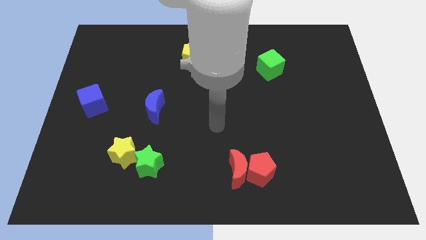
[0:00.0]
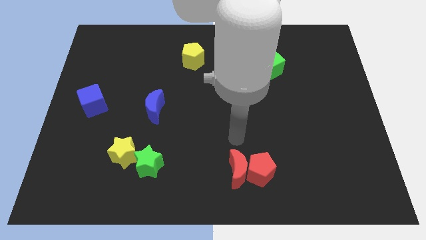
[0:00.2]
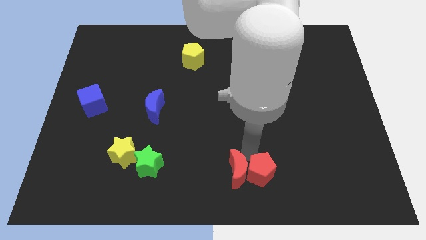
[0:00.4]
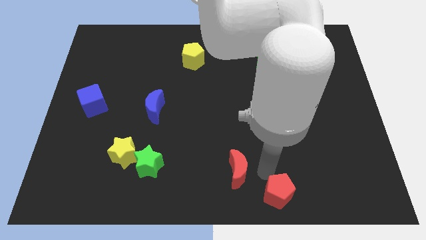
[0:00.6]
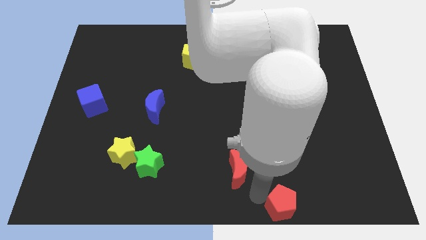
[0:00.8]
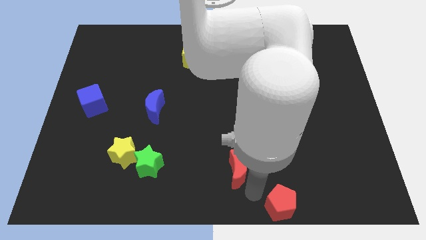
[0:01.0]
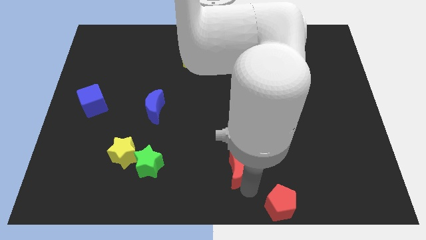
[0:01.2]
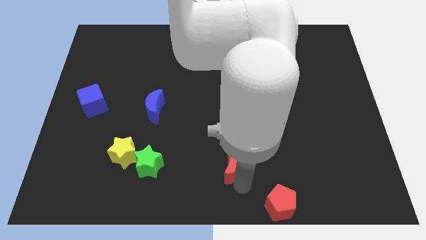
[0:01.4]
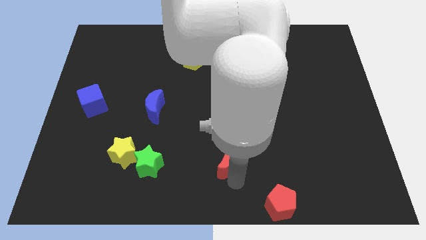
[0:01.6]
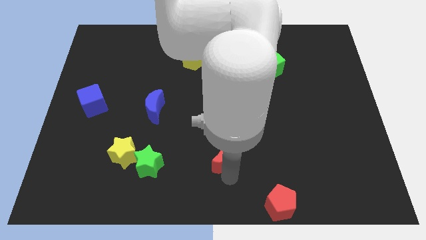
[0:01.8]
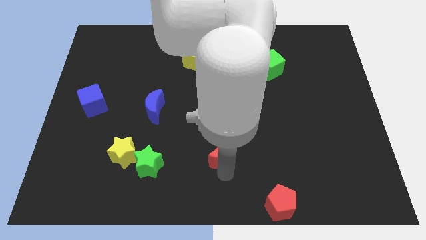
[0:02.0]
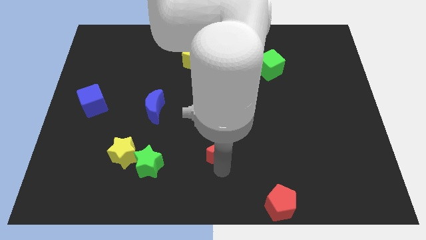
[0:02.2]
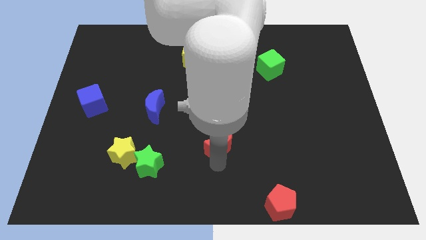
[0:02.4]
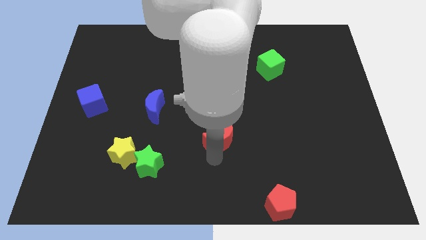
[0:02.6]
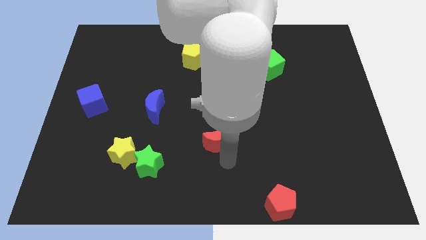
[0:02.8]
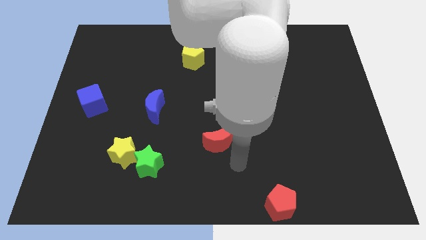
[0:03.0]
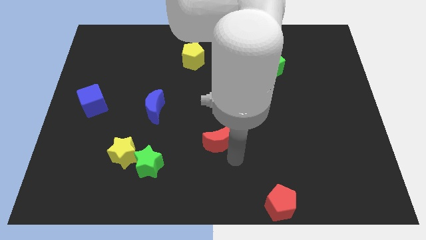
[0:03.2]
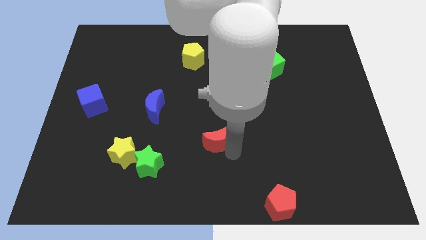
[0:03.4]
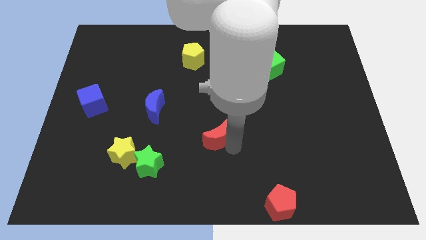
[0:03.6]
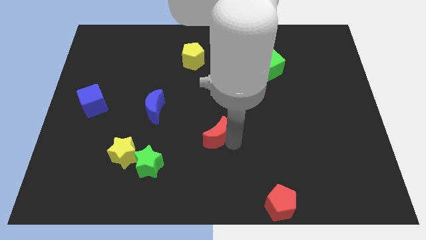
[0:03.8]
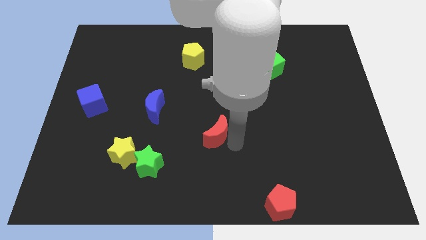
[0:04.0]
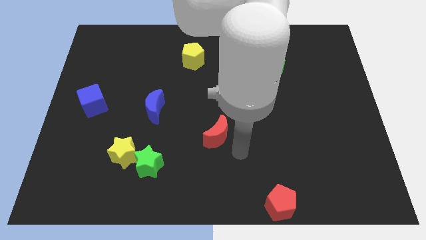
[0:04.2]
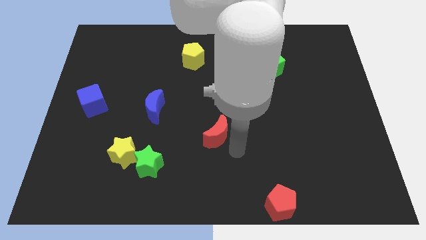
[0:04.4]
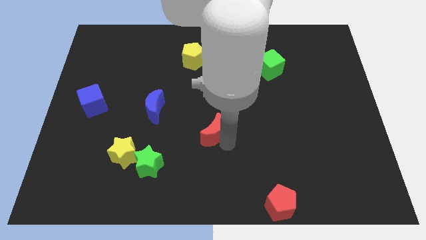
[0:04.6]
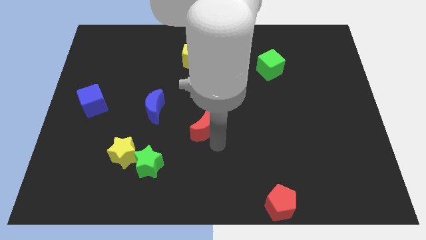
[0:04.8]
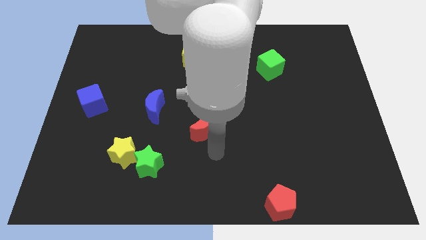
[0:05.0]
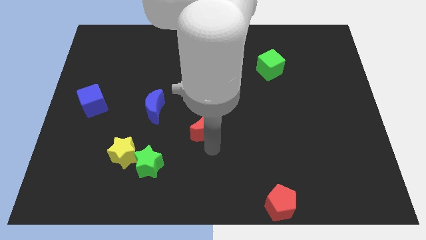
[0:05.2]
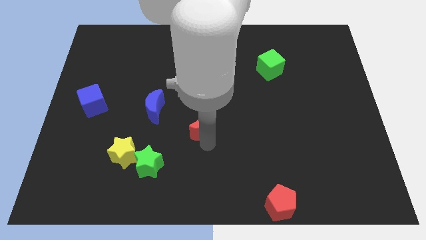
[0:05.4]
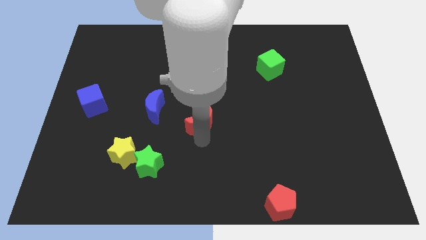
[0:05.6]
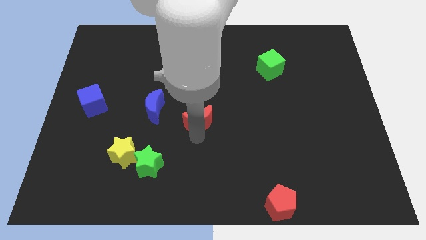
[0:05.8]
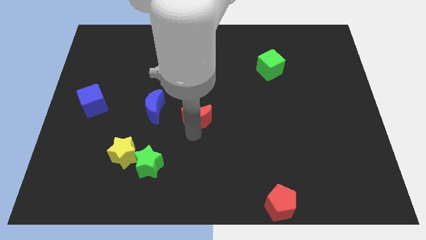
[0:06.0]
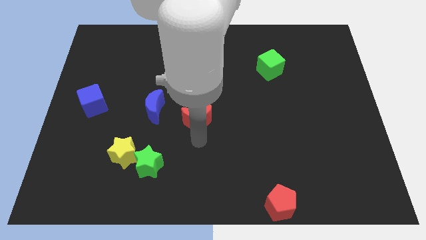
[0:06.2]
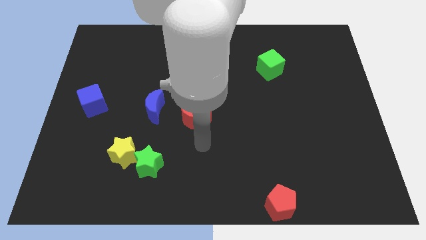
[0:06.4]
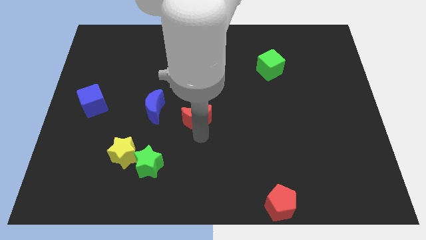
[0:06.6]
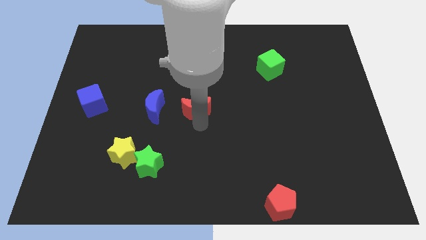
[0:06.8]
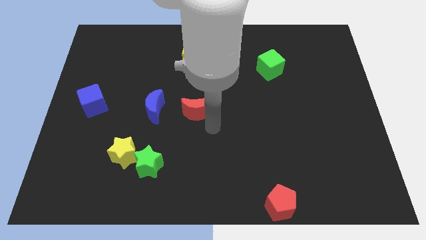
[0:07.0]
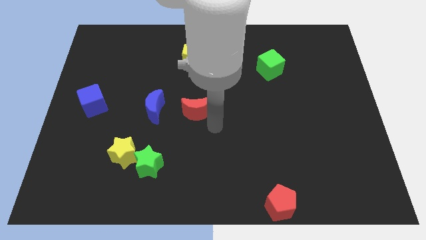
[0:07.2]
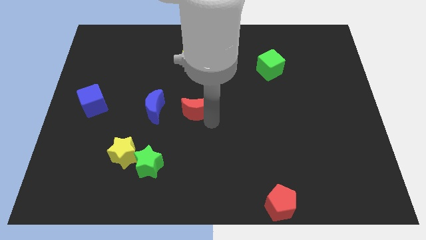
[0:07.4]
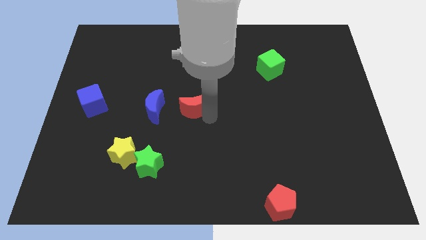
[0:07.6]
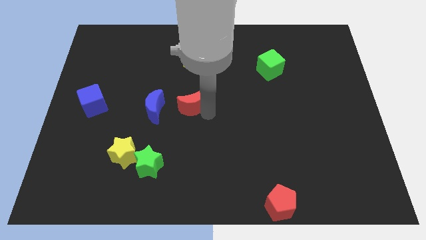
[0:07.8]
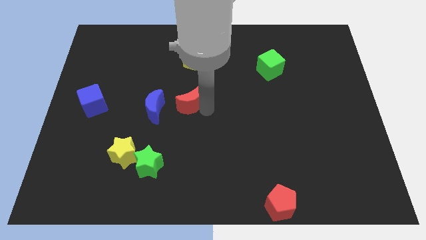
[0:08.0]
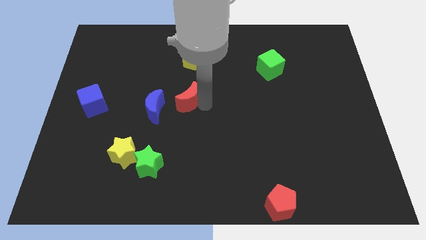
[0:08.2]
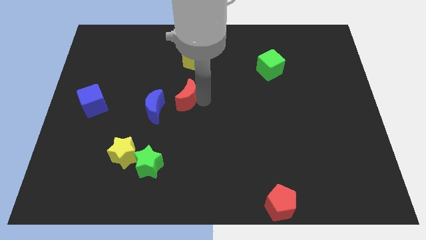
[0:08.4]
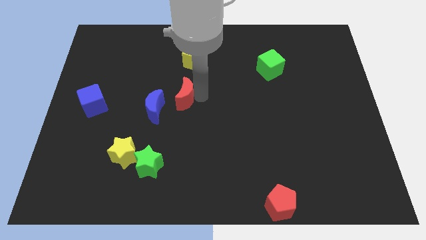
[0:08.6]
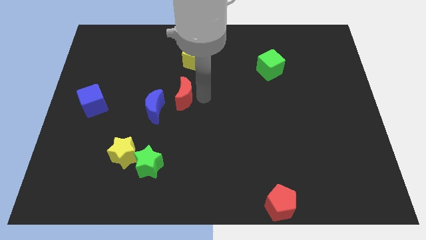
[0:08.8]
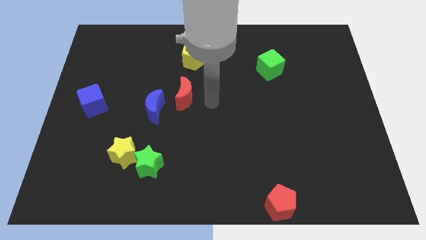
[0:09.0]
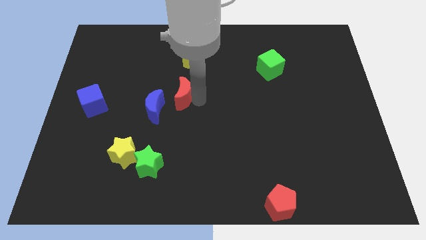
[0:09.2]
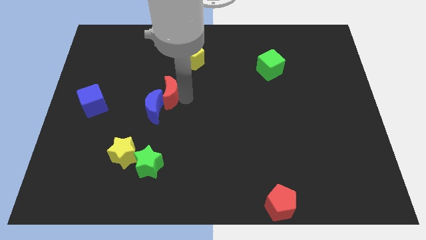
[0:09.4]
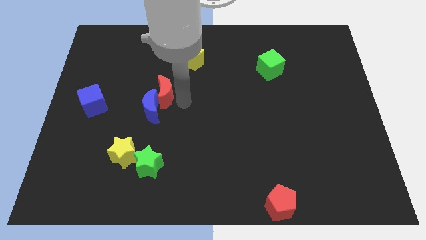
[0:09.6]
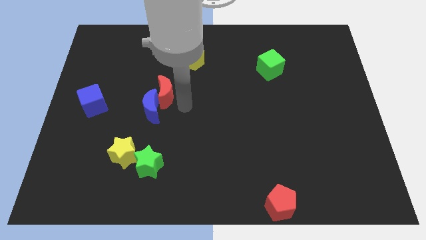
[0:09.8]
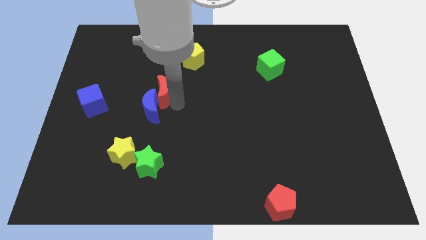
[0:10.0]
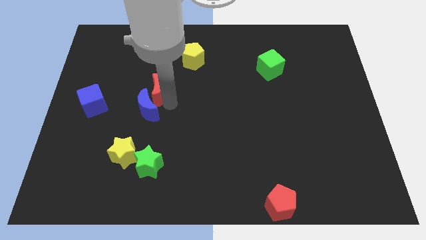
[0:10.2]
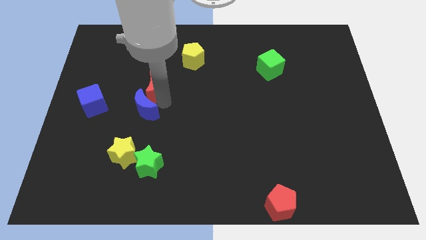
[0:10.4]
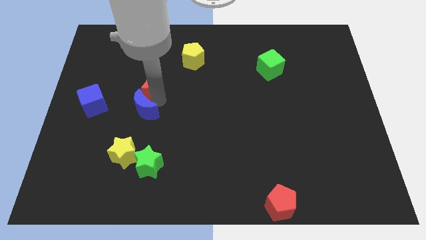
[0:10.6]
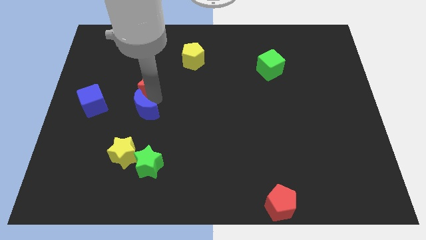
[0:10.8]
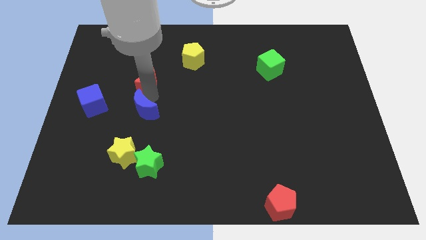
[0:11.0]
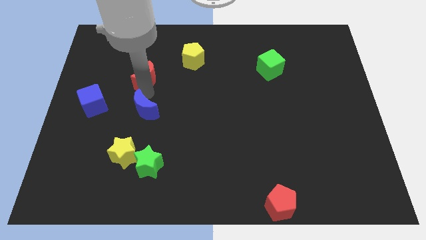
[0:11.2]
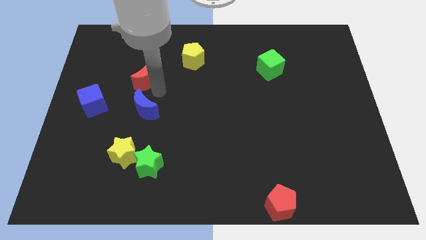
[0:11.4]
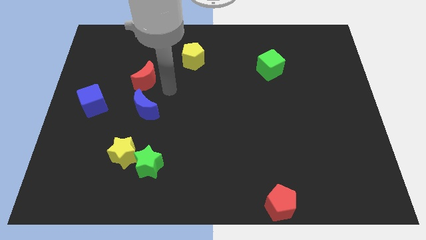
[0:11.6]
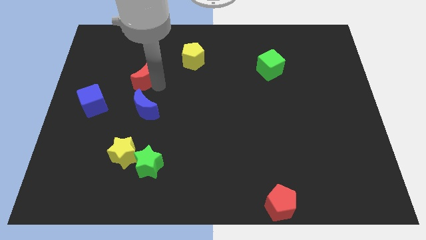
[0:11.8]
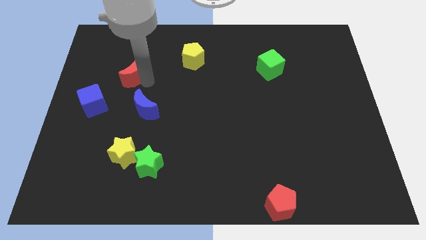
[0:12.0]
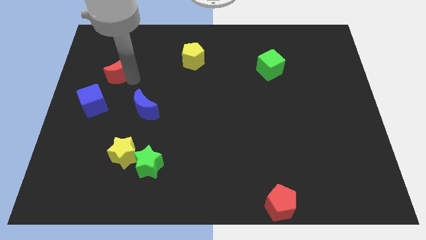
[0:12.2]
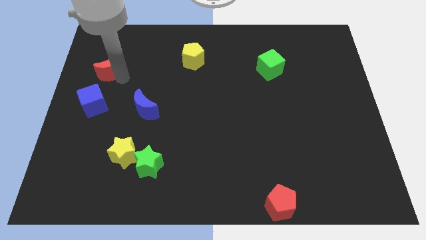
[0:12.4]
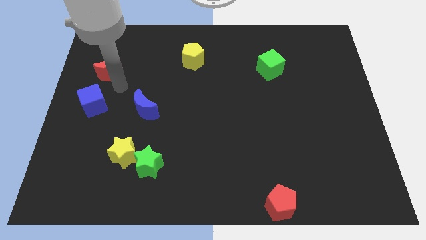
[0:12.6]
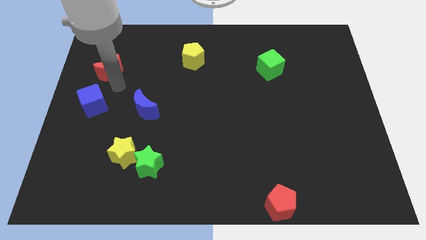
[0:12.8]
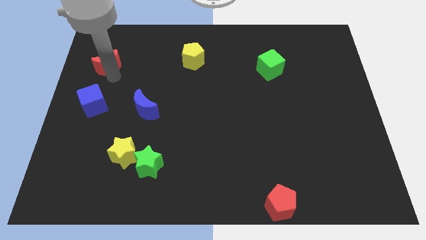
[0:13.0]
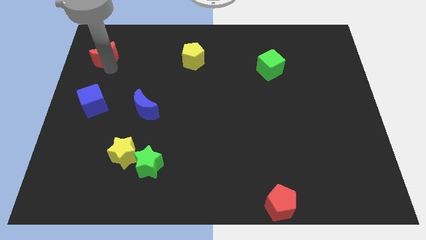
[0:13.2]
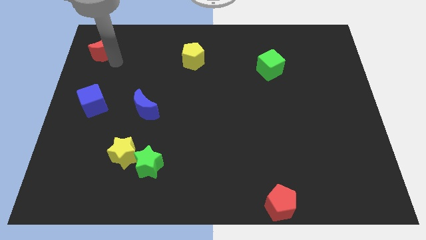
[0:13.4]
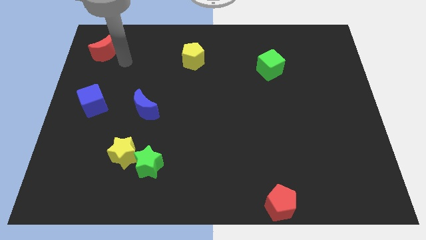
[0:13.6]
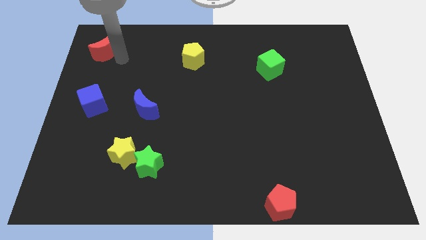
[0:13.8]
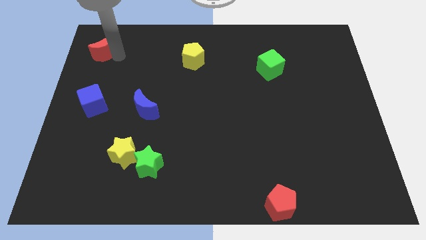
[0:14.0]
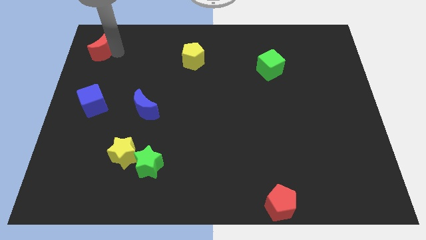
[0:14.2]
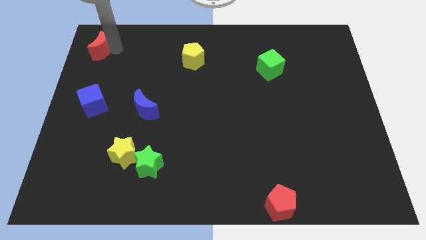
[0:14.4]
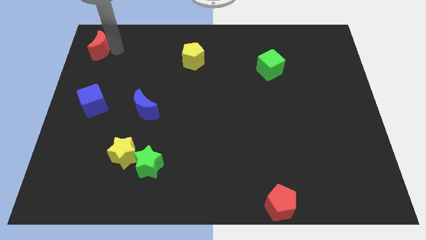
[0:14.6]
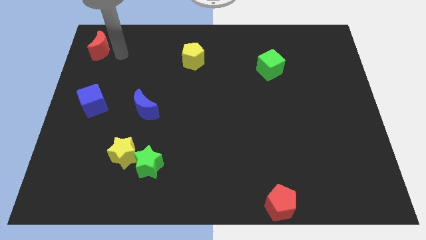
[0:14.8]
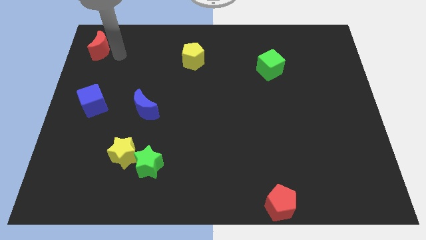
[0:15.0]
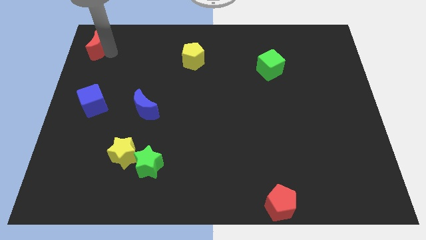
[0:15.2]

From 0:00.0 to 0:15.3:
push the red moon to the upper left corner
